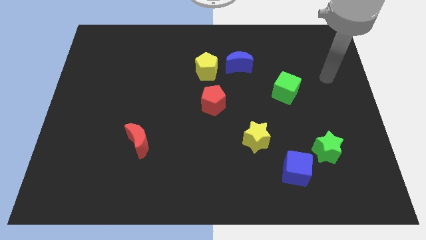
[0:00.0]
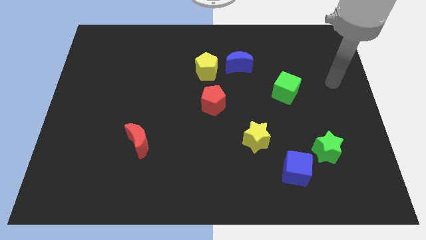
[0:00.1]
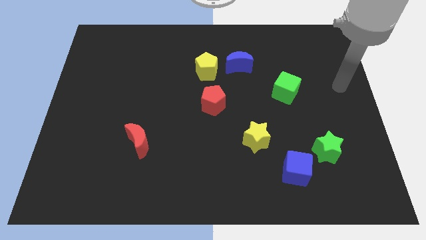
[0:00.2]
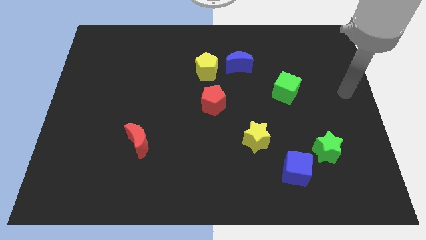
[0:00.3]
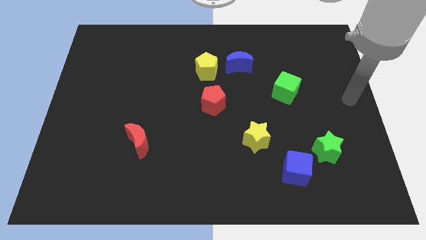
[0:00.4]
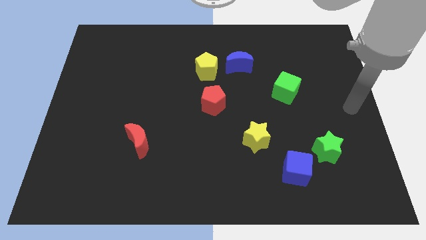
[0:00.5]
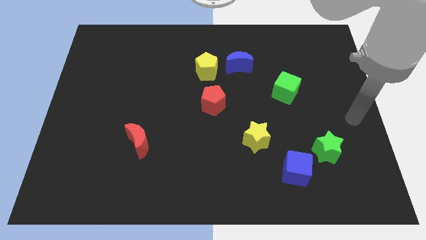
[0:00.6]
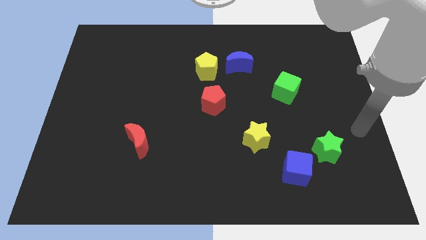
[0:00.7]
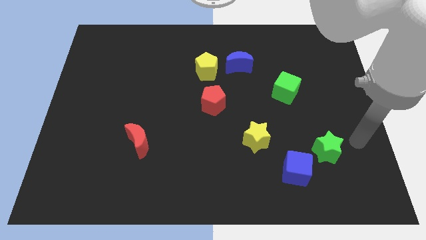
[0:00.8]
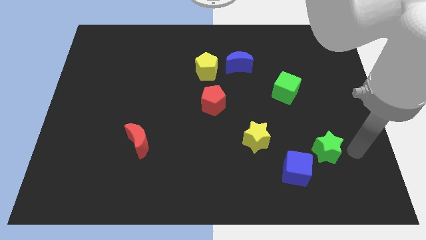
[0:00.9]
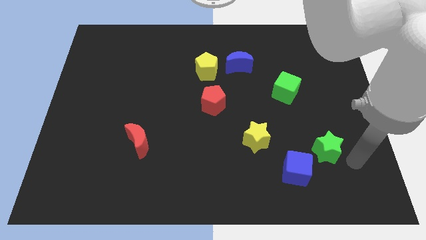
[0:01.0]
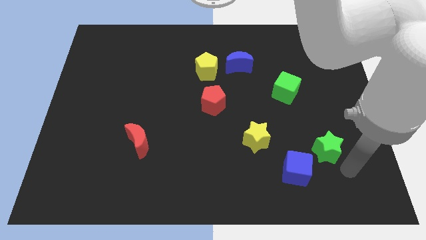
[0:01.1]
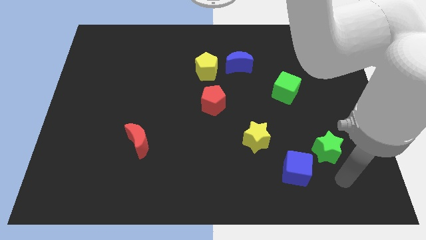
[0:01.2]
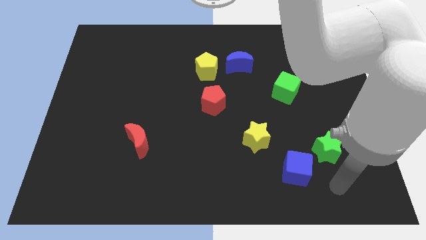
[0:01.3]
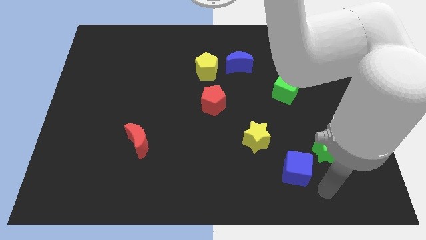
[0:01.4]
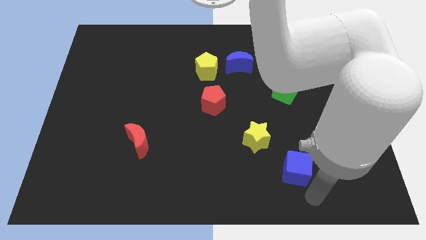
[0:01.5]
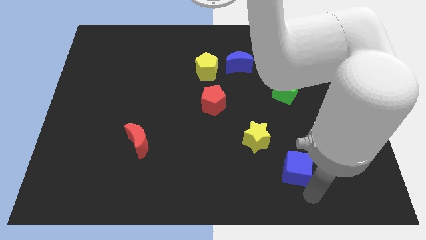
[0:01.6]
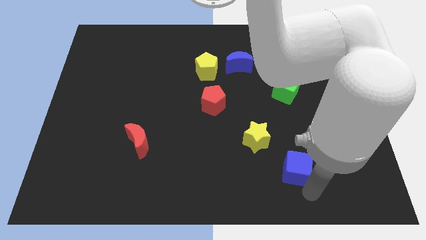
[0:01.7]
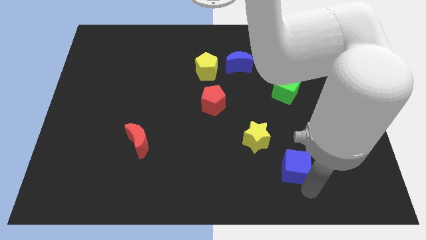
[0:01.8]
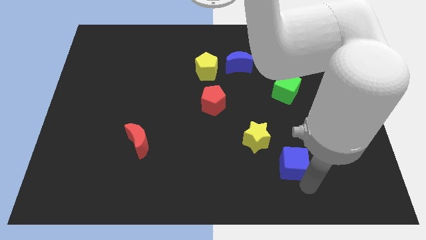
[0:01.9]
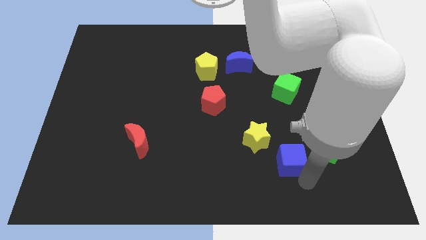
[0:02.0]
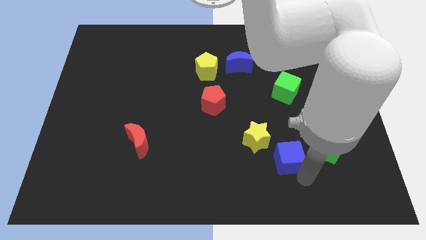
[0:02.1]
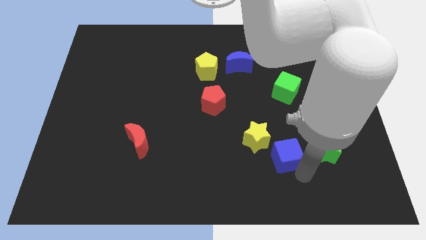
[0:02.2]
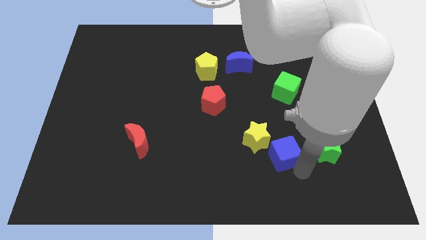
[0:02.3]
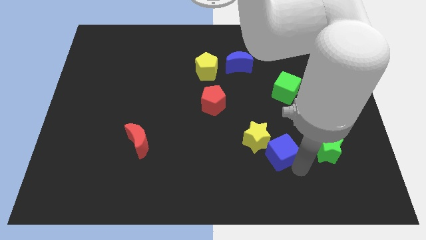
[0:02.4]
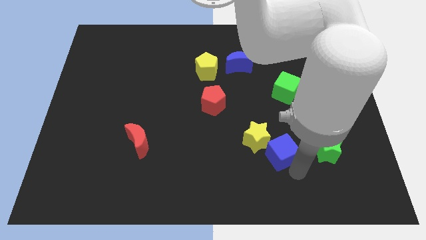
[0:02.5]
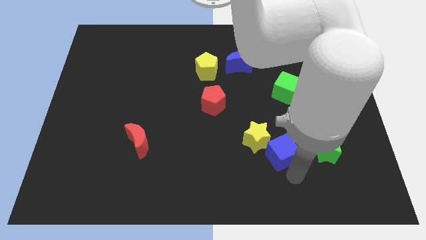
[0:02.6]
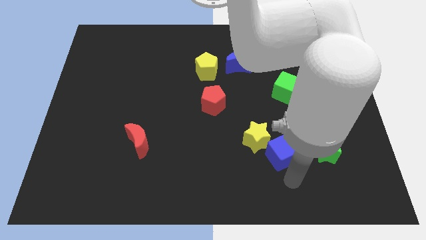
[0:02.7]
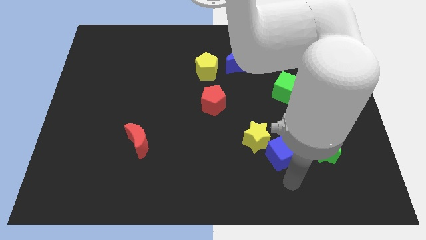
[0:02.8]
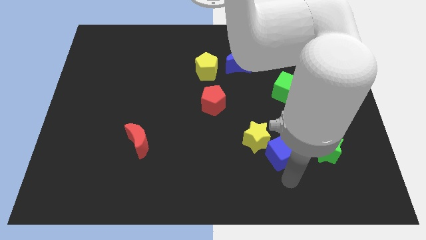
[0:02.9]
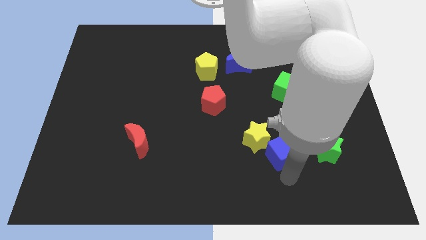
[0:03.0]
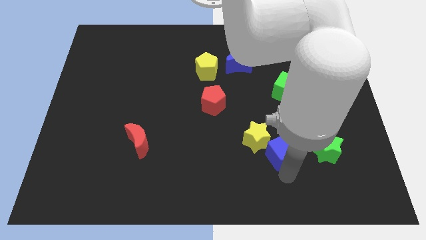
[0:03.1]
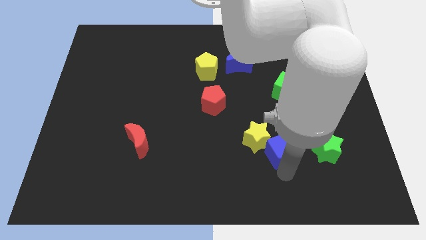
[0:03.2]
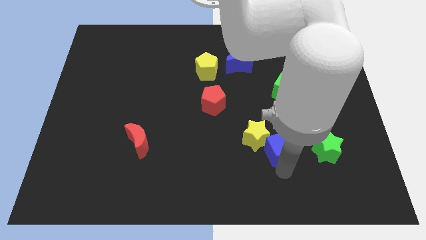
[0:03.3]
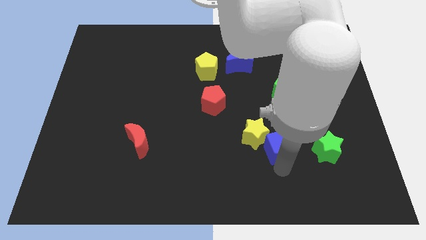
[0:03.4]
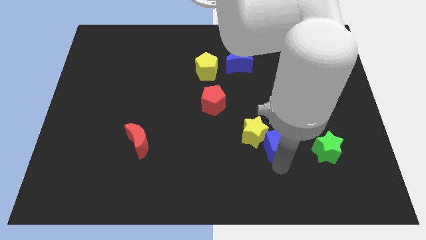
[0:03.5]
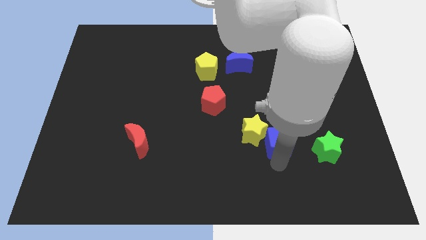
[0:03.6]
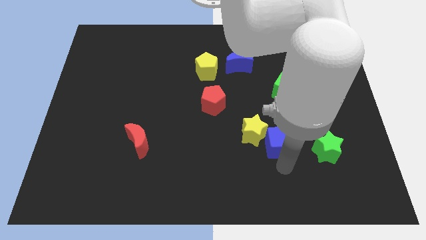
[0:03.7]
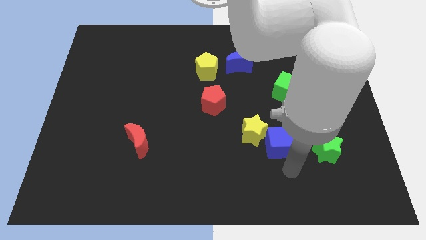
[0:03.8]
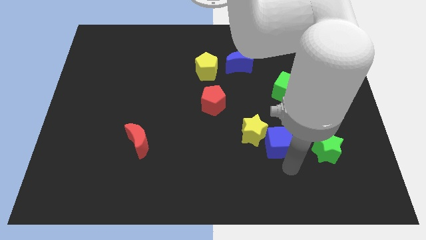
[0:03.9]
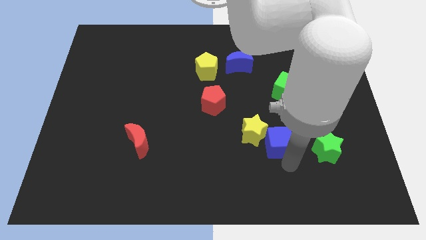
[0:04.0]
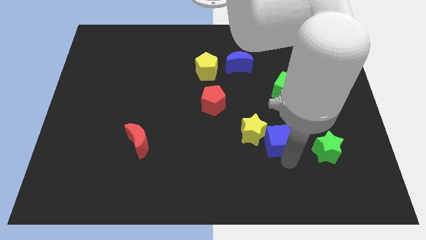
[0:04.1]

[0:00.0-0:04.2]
move the blue cube diagonally upwards and left a little

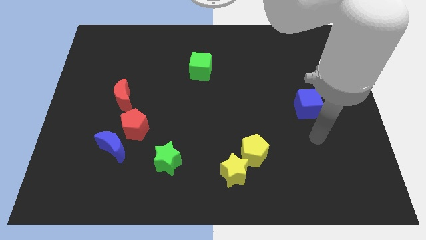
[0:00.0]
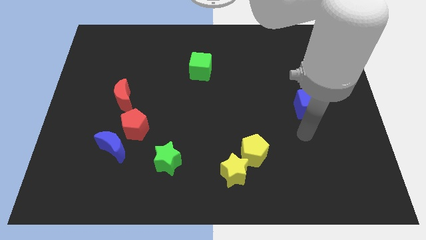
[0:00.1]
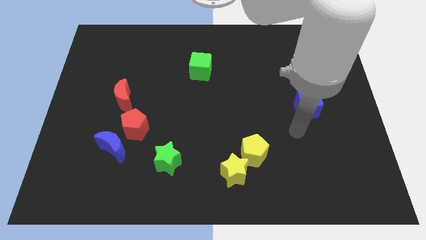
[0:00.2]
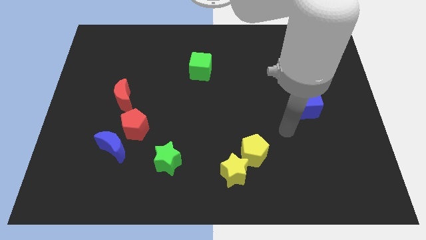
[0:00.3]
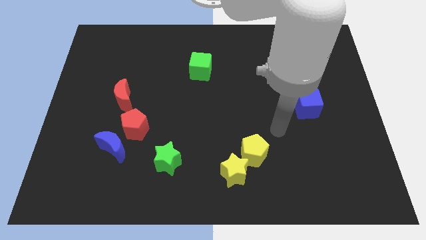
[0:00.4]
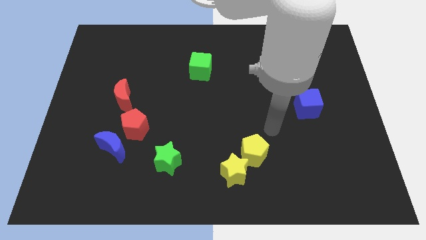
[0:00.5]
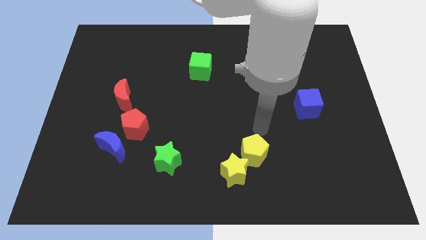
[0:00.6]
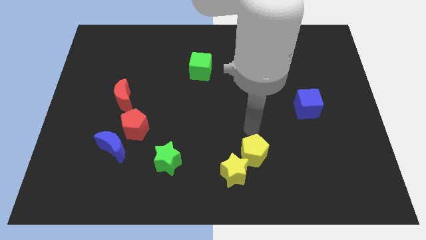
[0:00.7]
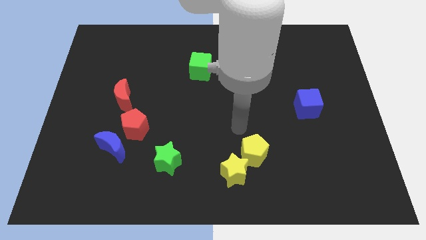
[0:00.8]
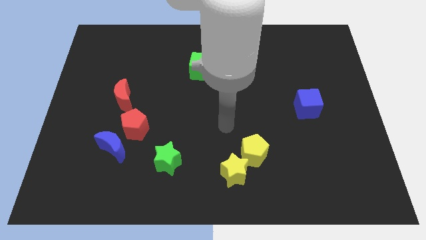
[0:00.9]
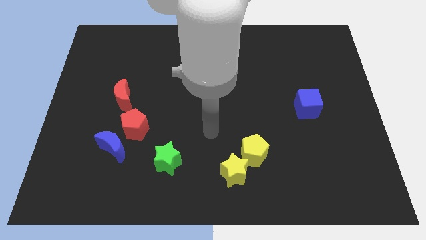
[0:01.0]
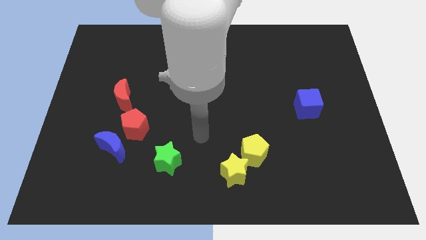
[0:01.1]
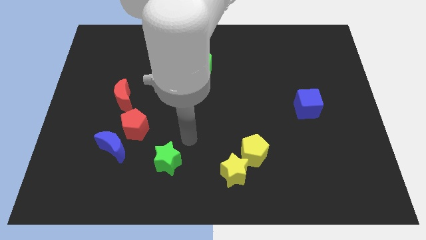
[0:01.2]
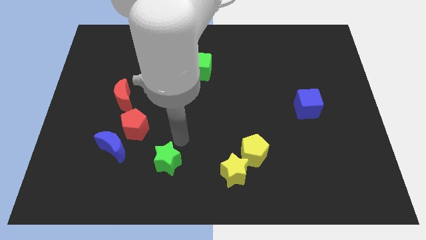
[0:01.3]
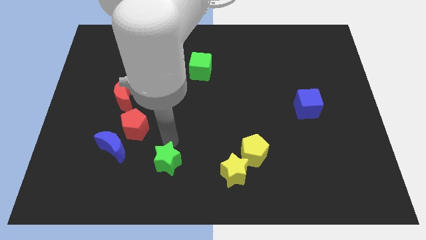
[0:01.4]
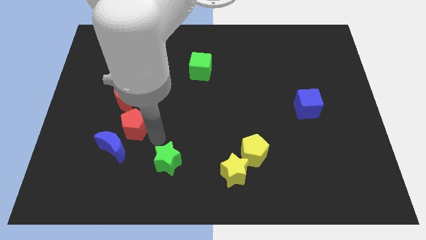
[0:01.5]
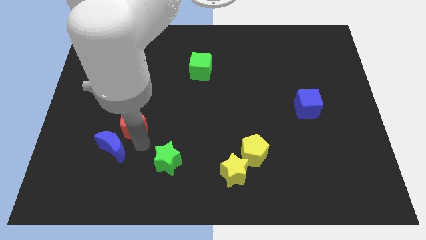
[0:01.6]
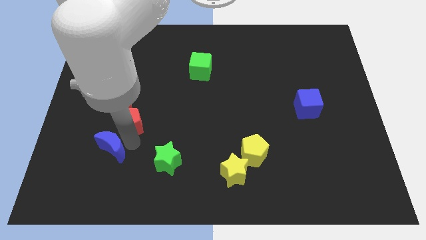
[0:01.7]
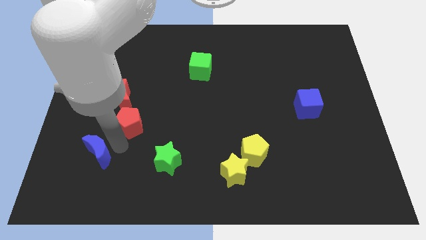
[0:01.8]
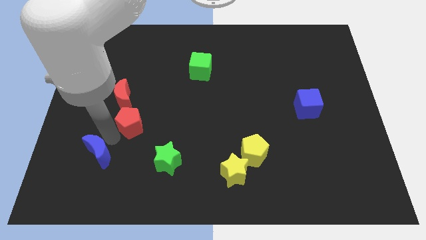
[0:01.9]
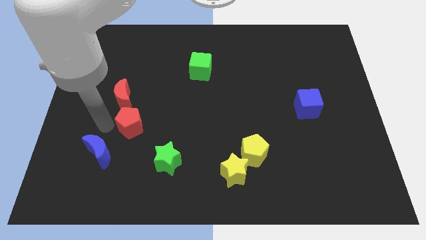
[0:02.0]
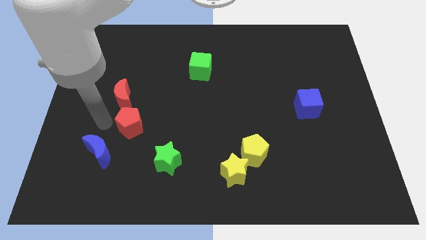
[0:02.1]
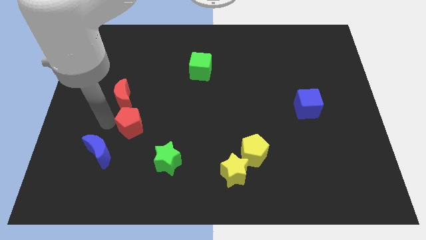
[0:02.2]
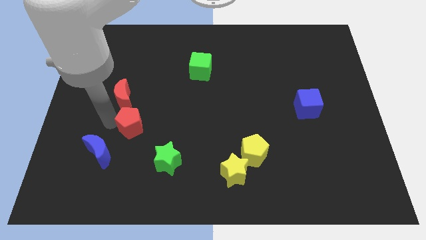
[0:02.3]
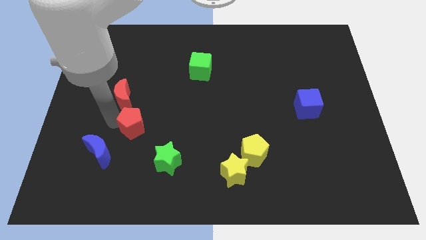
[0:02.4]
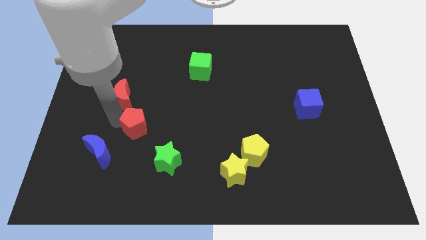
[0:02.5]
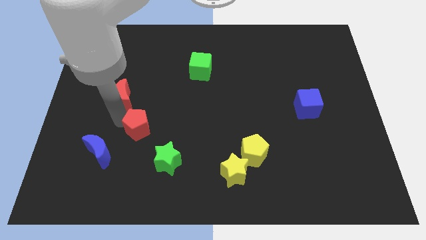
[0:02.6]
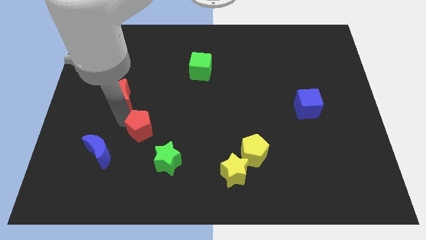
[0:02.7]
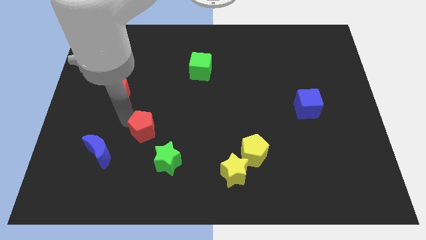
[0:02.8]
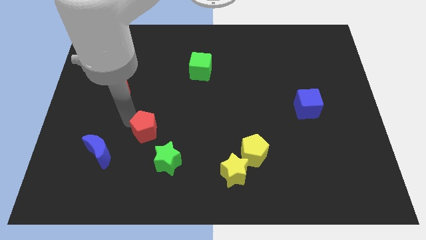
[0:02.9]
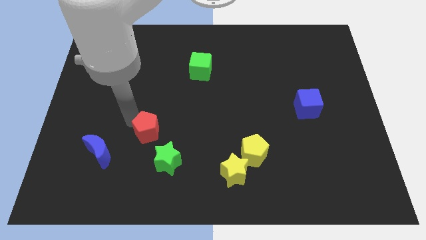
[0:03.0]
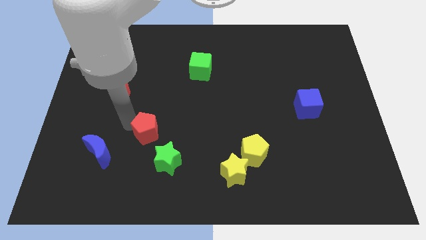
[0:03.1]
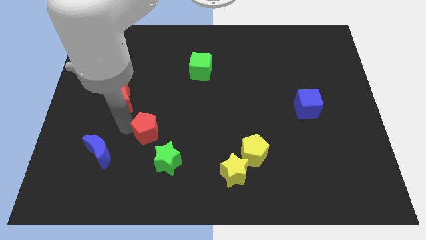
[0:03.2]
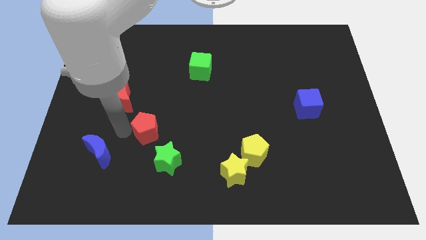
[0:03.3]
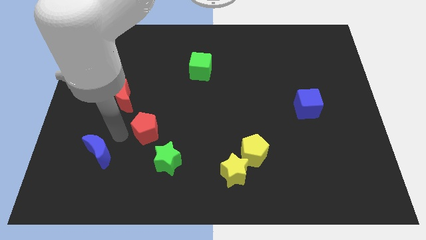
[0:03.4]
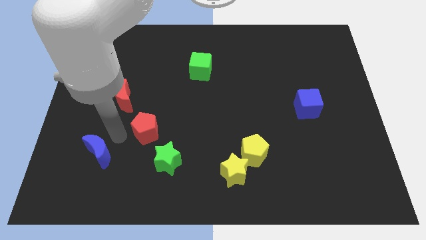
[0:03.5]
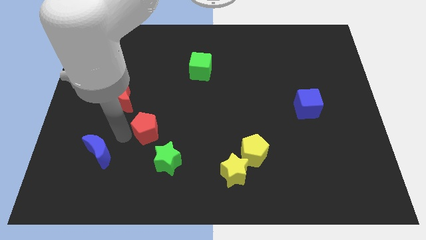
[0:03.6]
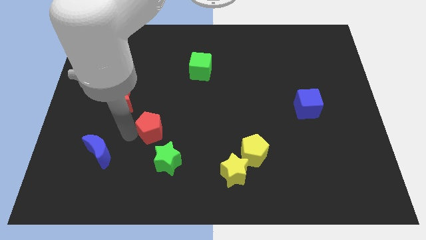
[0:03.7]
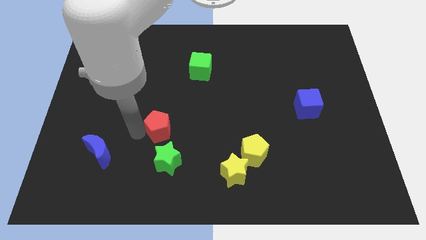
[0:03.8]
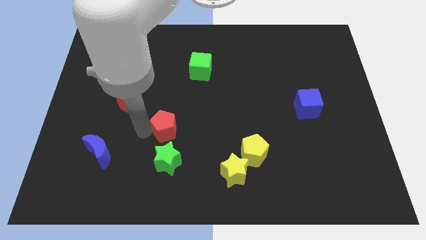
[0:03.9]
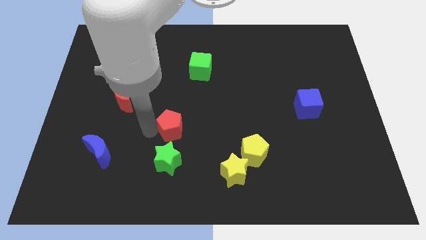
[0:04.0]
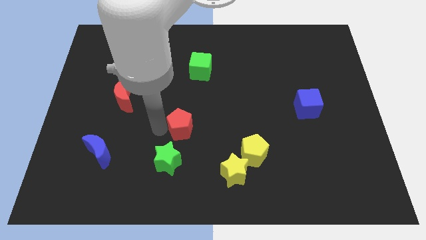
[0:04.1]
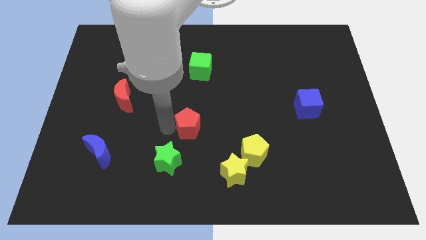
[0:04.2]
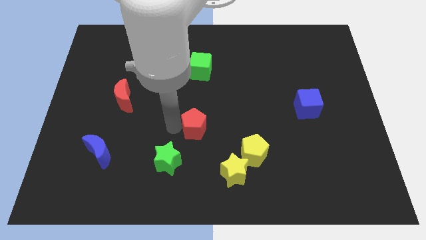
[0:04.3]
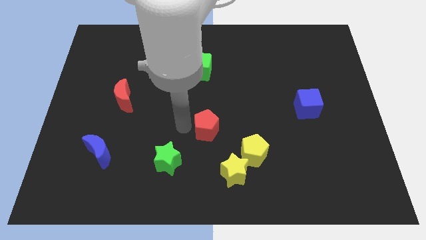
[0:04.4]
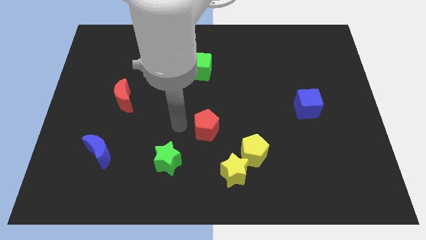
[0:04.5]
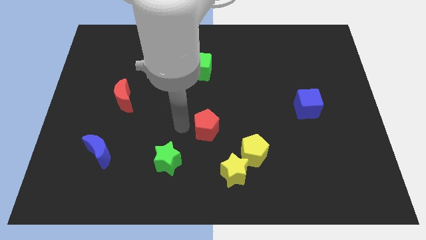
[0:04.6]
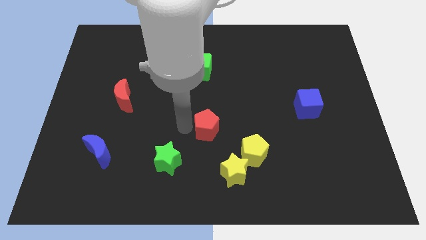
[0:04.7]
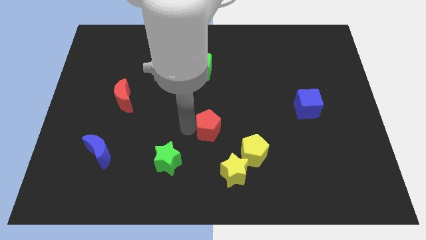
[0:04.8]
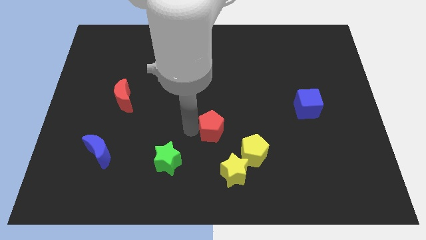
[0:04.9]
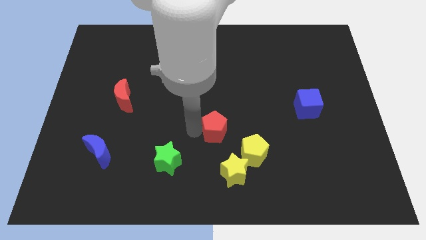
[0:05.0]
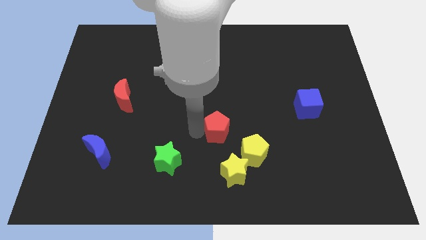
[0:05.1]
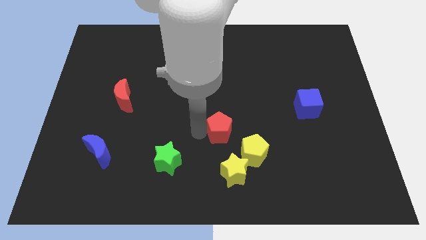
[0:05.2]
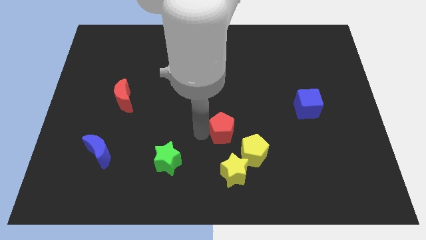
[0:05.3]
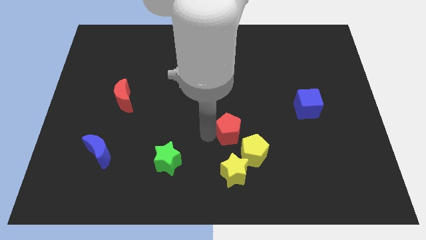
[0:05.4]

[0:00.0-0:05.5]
move the red pentagon right
